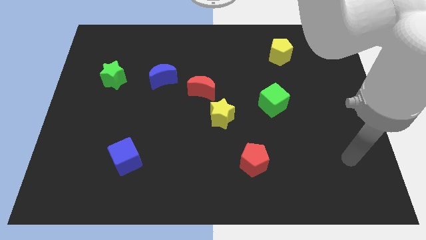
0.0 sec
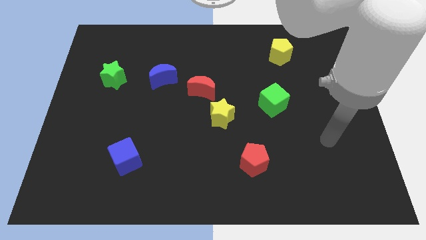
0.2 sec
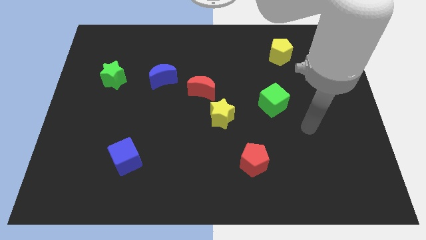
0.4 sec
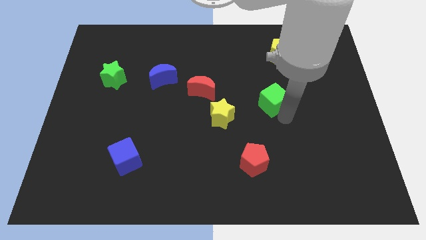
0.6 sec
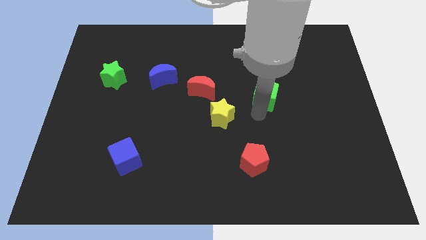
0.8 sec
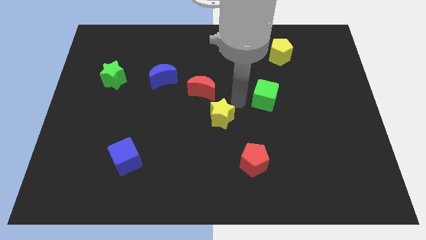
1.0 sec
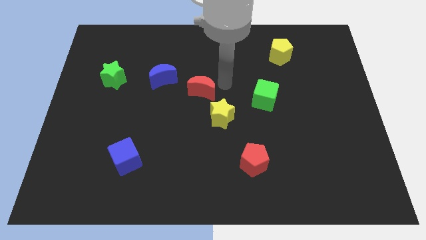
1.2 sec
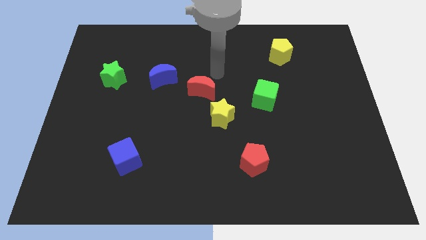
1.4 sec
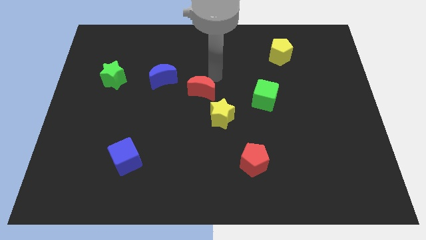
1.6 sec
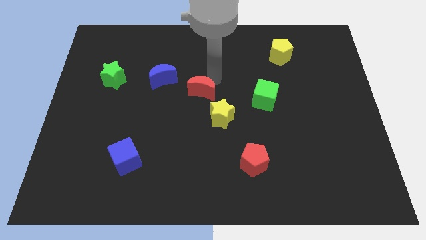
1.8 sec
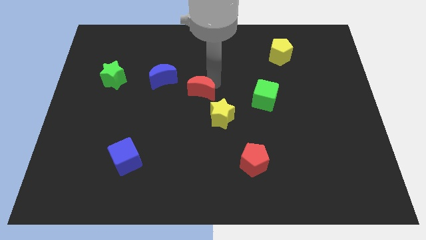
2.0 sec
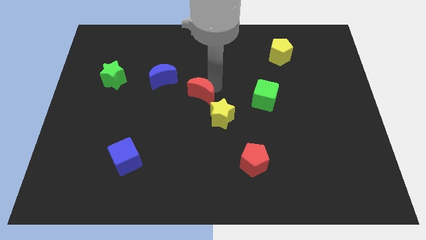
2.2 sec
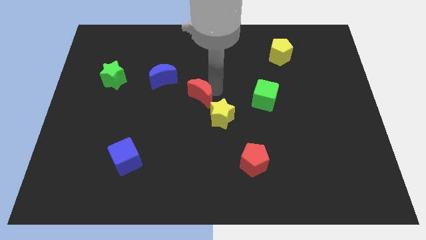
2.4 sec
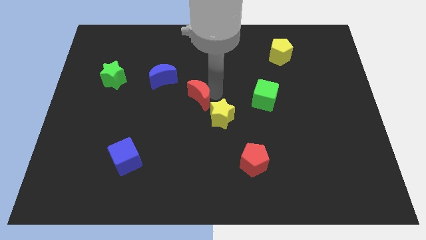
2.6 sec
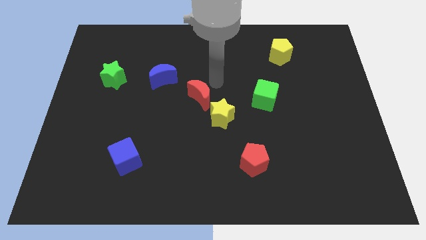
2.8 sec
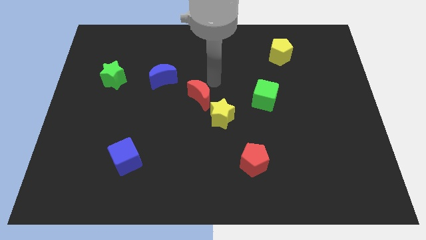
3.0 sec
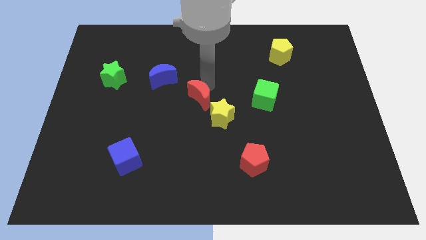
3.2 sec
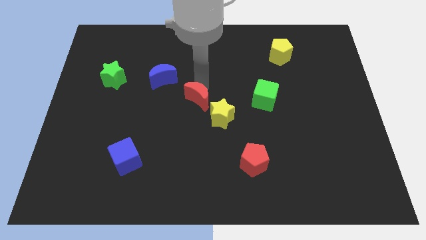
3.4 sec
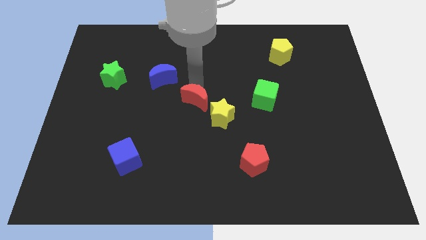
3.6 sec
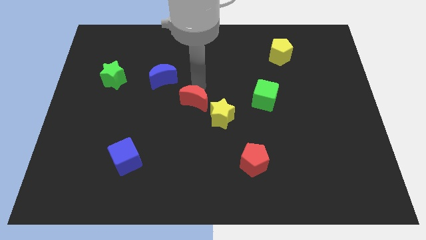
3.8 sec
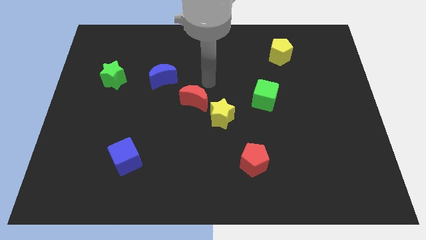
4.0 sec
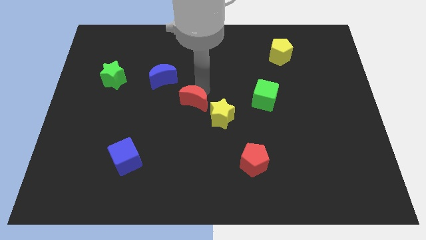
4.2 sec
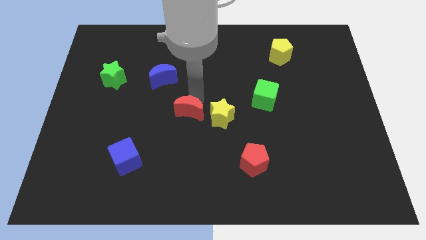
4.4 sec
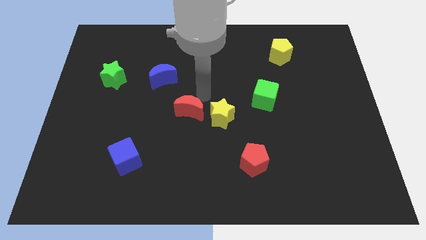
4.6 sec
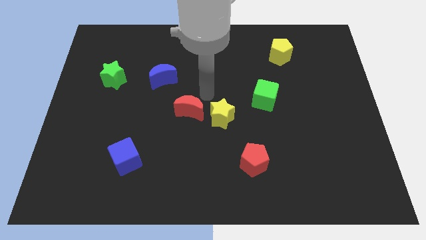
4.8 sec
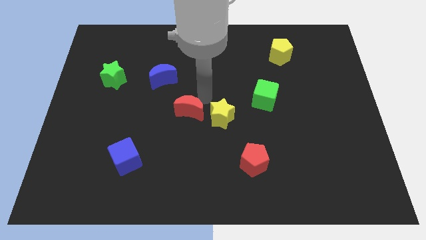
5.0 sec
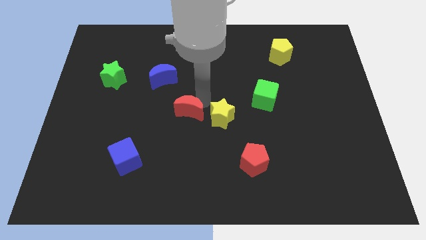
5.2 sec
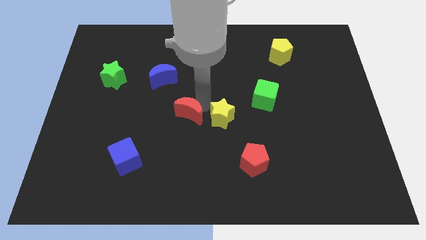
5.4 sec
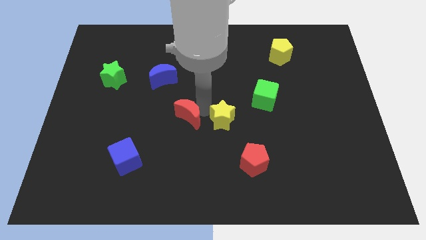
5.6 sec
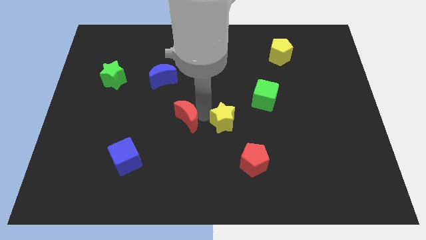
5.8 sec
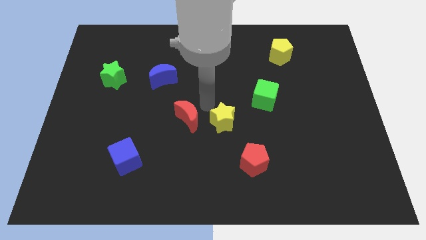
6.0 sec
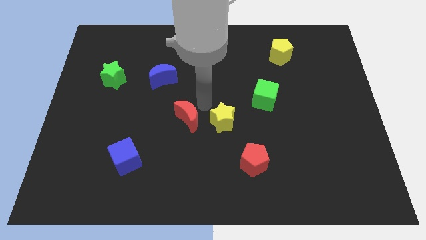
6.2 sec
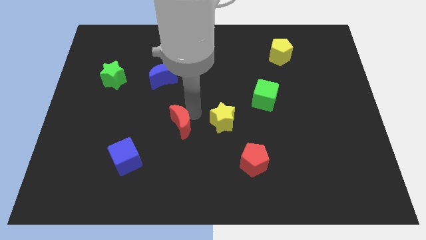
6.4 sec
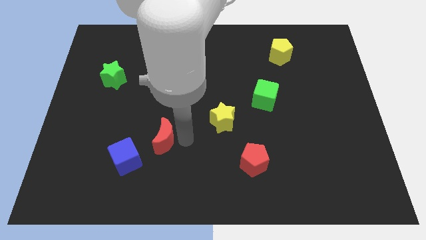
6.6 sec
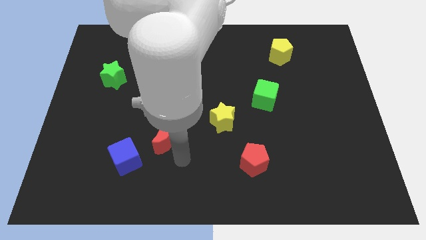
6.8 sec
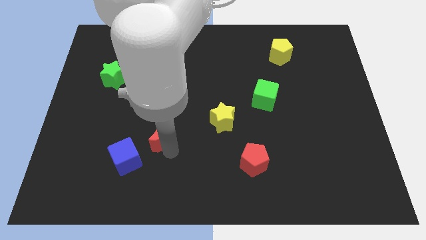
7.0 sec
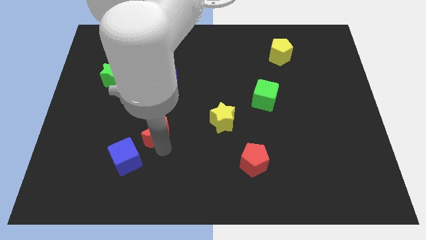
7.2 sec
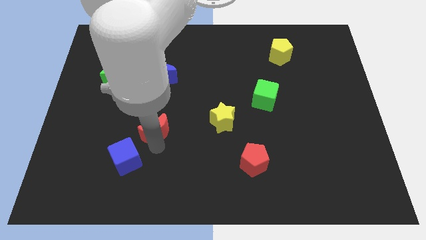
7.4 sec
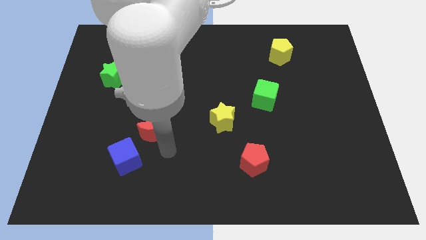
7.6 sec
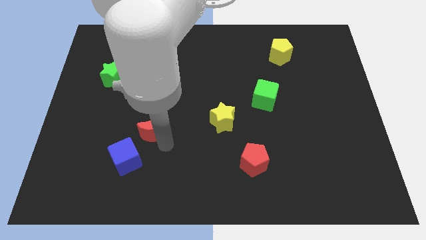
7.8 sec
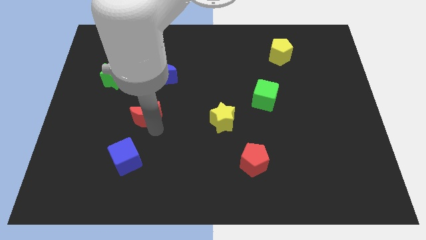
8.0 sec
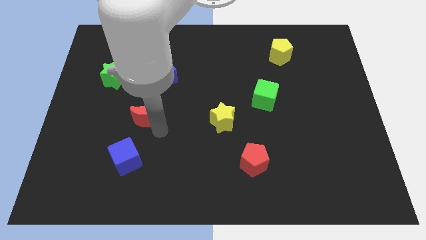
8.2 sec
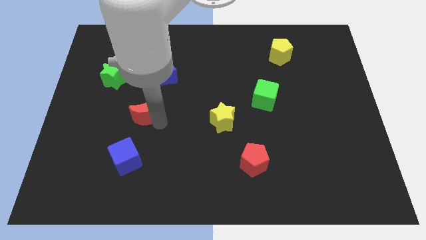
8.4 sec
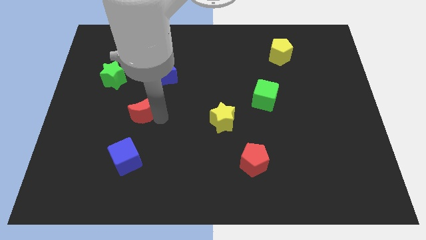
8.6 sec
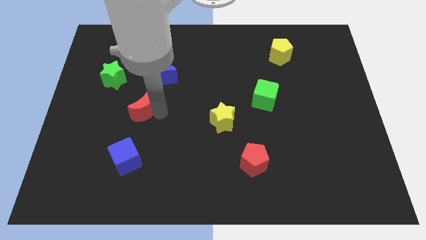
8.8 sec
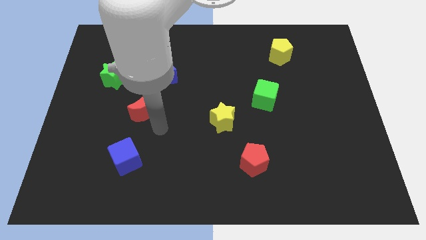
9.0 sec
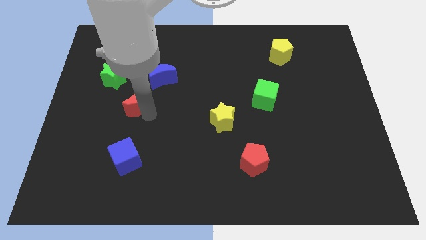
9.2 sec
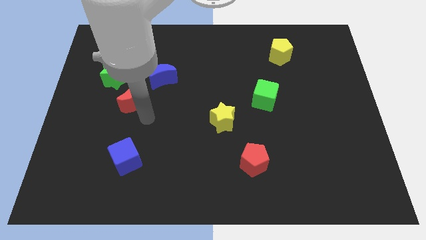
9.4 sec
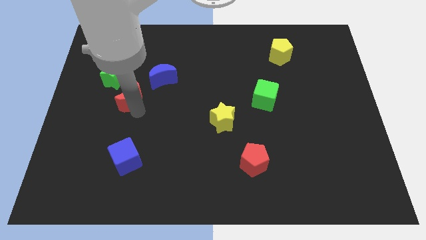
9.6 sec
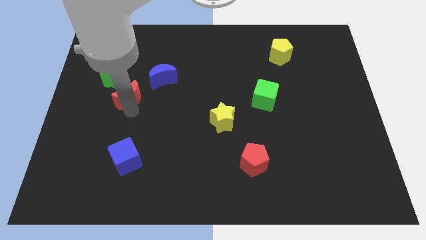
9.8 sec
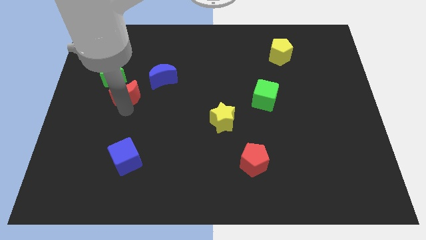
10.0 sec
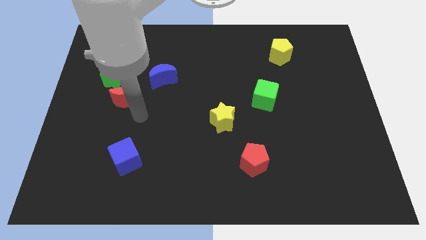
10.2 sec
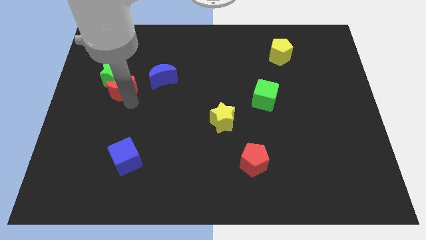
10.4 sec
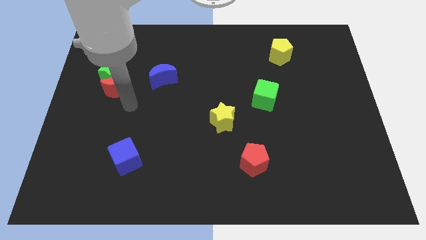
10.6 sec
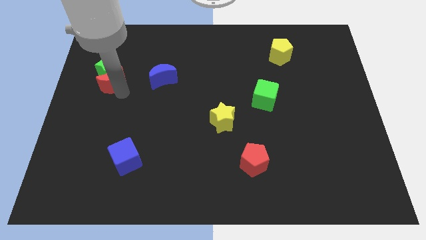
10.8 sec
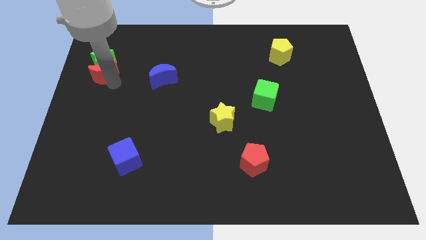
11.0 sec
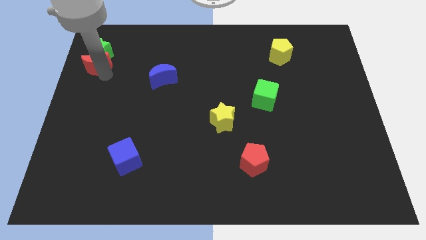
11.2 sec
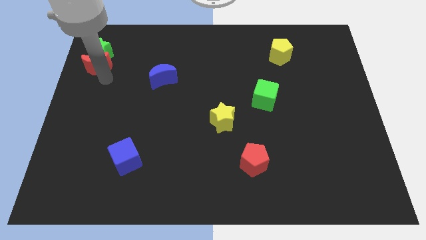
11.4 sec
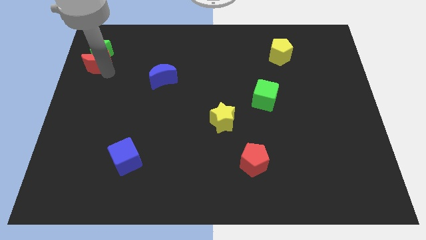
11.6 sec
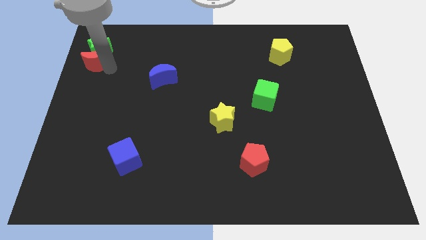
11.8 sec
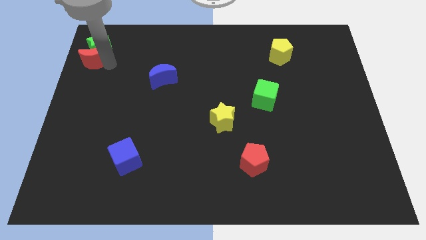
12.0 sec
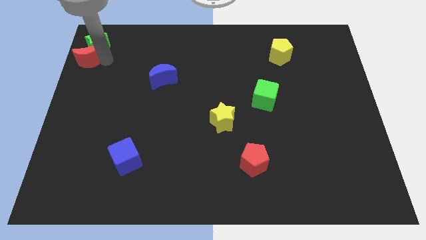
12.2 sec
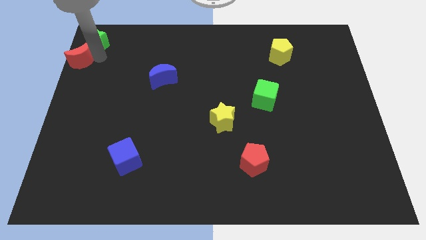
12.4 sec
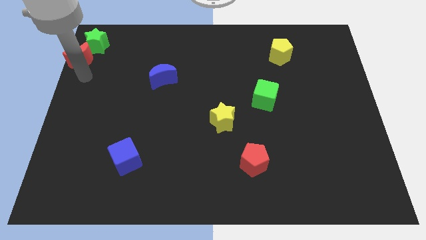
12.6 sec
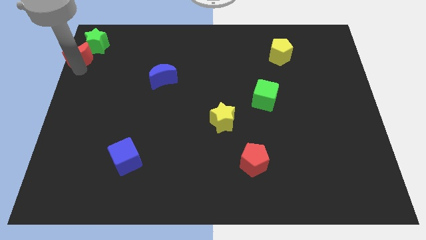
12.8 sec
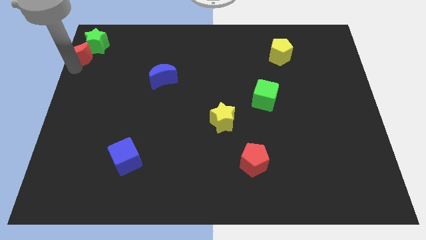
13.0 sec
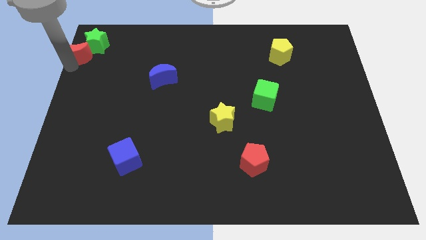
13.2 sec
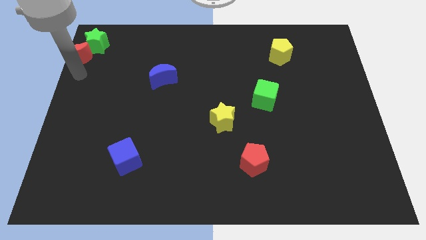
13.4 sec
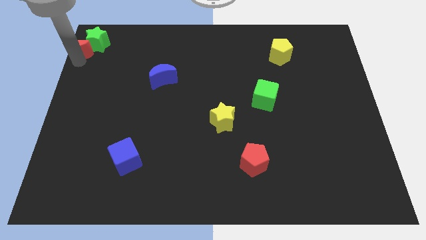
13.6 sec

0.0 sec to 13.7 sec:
move the red moon to the upper left corner
